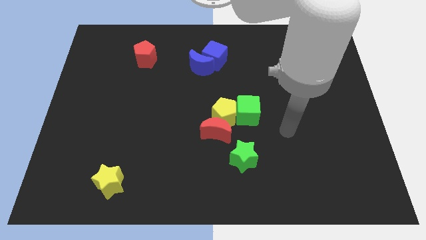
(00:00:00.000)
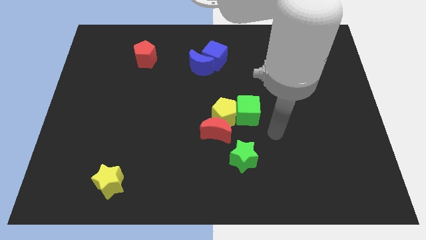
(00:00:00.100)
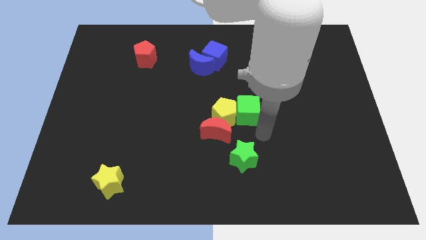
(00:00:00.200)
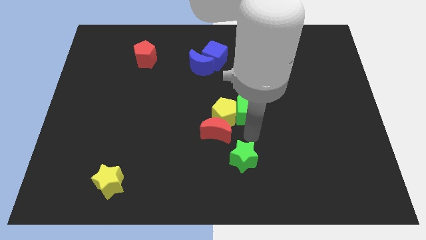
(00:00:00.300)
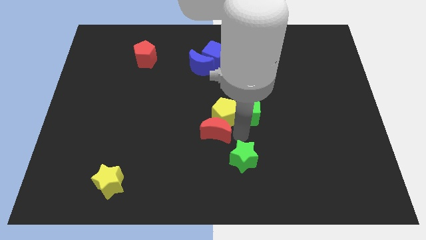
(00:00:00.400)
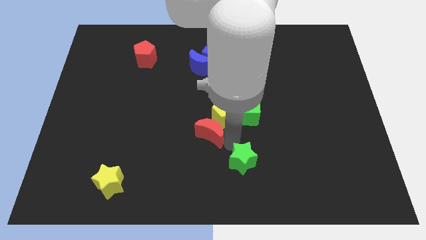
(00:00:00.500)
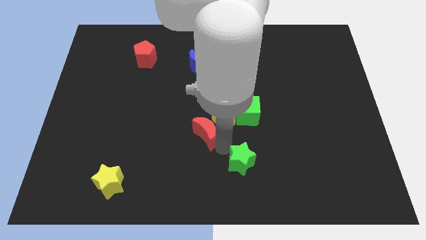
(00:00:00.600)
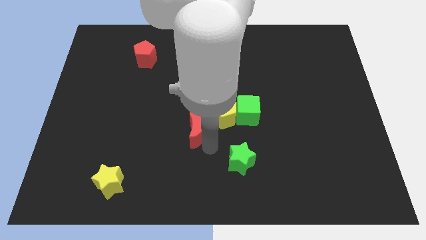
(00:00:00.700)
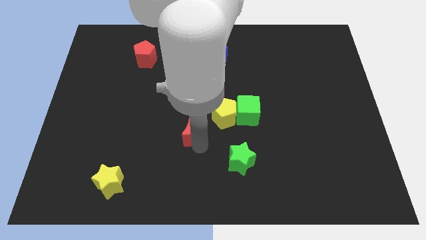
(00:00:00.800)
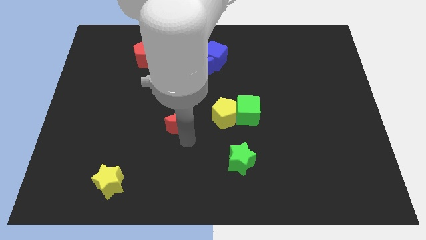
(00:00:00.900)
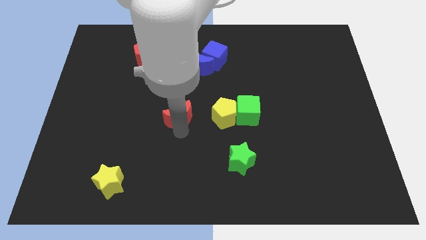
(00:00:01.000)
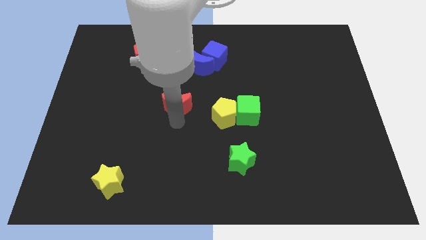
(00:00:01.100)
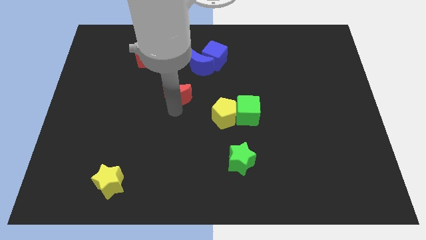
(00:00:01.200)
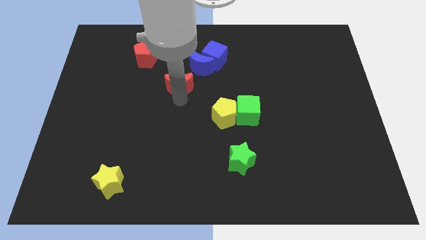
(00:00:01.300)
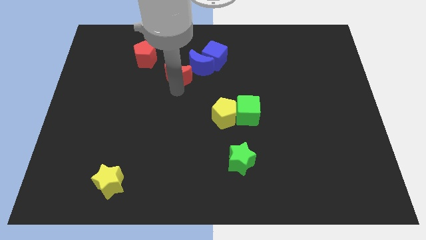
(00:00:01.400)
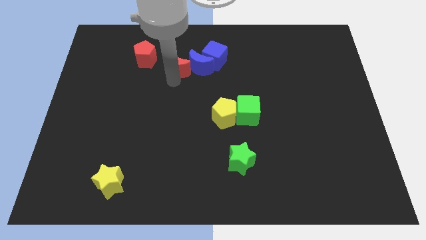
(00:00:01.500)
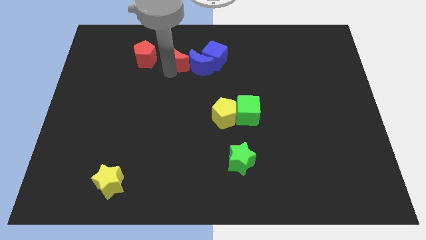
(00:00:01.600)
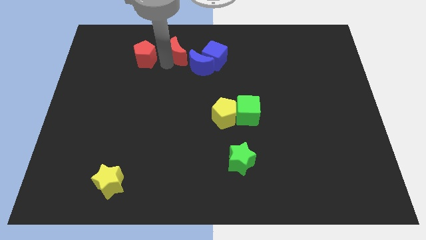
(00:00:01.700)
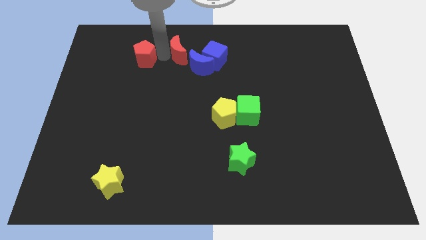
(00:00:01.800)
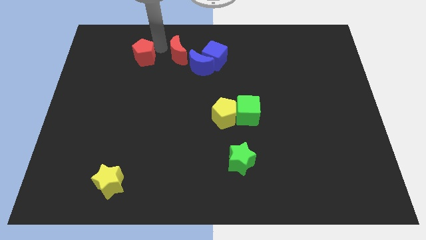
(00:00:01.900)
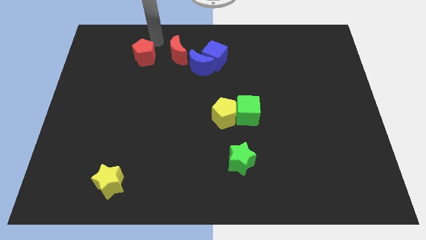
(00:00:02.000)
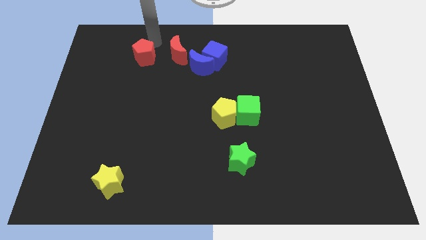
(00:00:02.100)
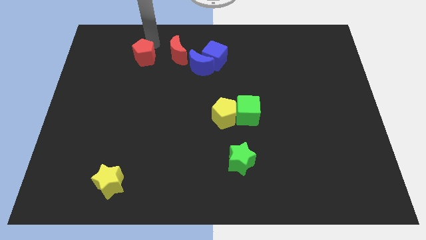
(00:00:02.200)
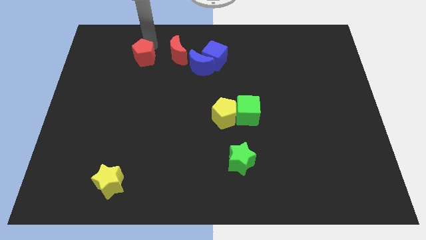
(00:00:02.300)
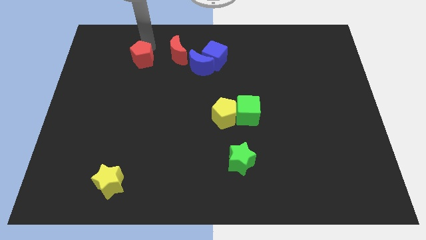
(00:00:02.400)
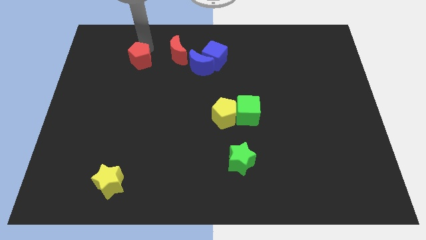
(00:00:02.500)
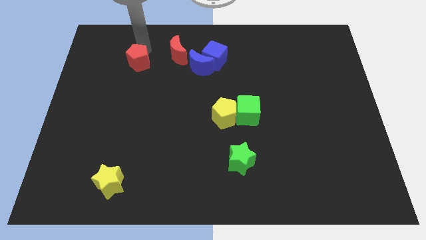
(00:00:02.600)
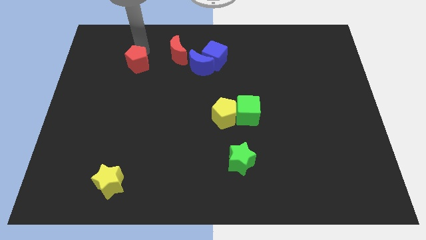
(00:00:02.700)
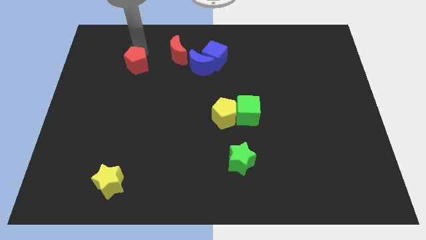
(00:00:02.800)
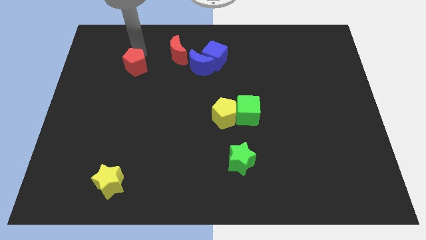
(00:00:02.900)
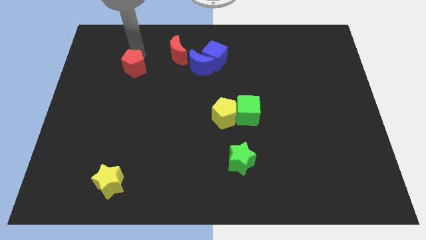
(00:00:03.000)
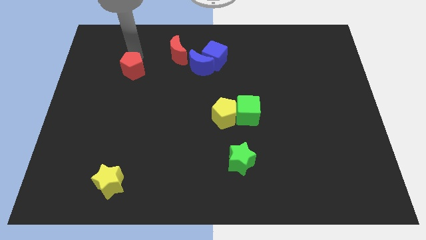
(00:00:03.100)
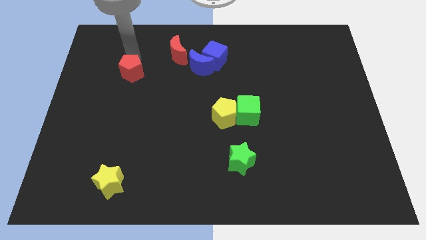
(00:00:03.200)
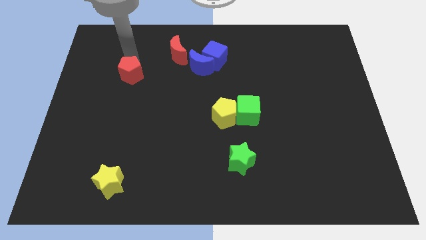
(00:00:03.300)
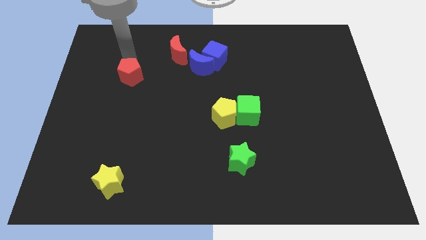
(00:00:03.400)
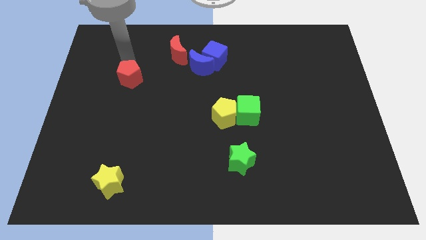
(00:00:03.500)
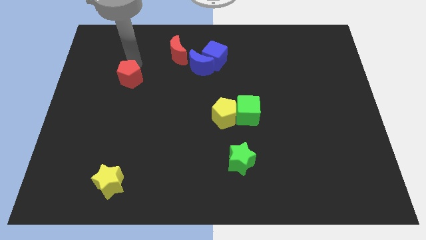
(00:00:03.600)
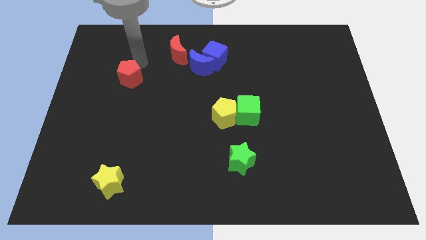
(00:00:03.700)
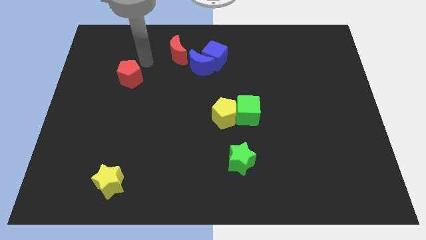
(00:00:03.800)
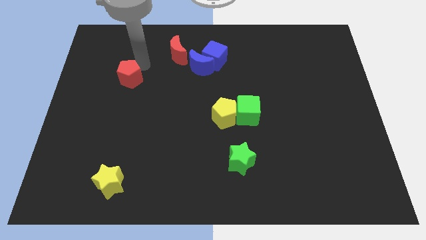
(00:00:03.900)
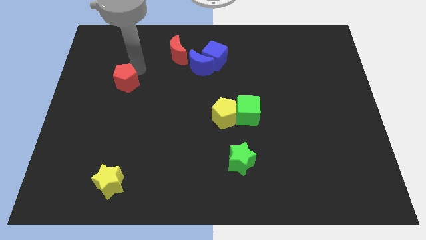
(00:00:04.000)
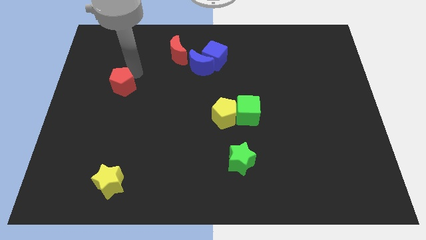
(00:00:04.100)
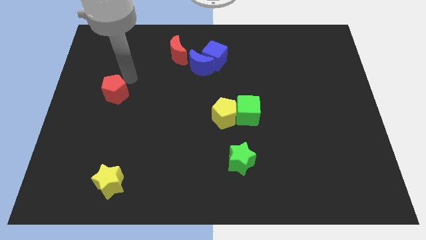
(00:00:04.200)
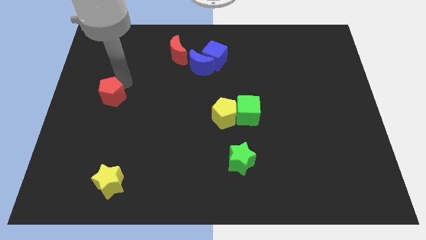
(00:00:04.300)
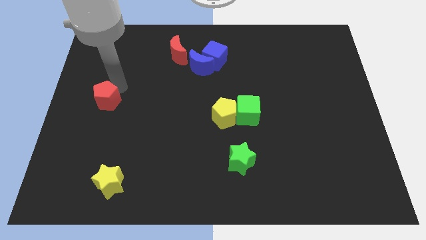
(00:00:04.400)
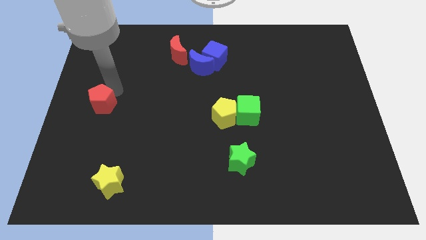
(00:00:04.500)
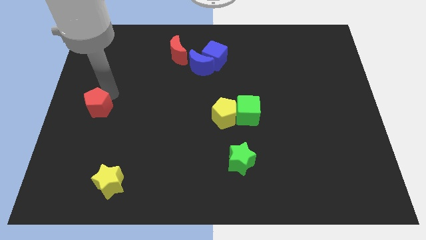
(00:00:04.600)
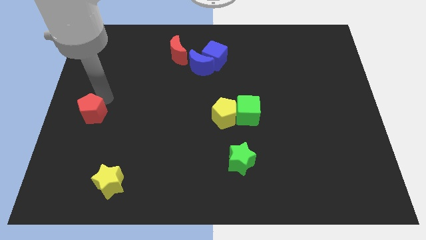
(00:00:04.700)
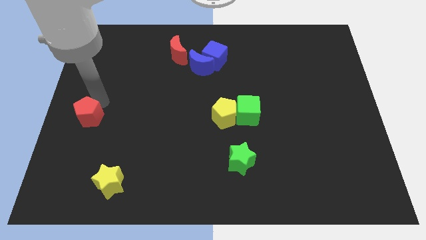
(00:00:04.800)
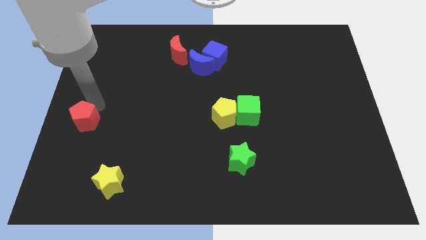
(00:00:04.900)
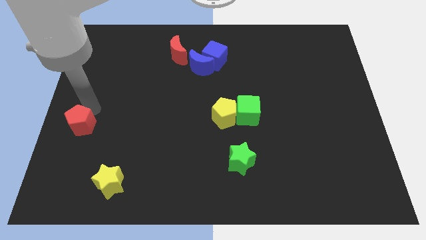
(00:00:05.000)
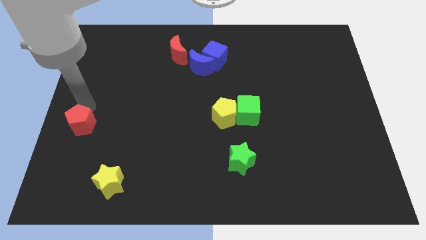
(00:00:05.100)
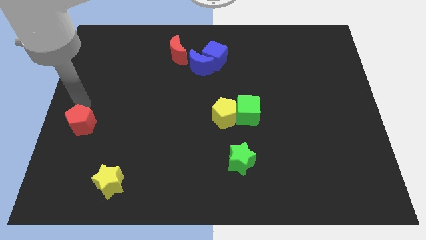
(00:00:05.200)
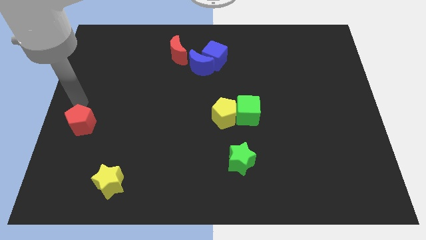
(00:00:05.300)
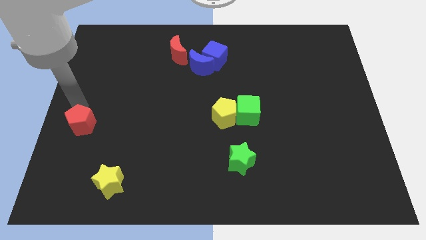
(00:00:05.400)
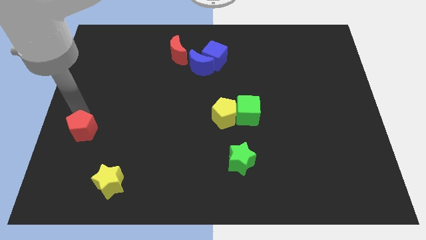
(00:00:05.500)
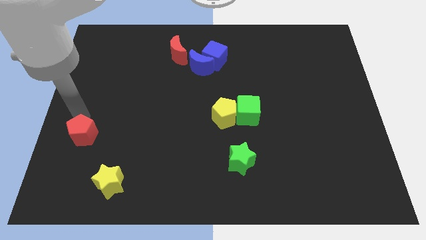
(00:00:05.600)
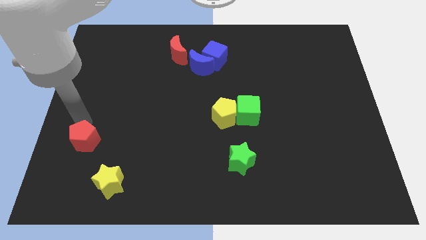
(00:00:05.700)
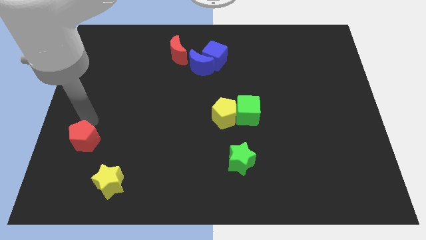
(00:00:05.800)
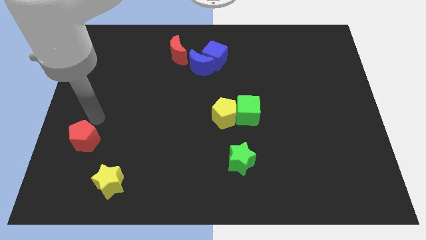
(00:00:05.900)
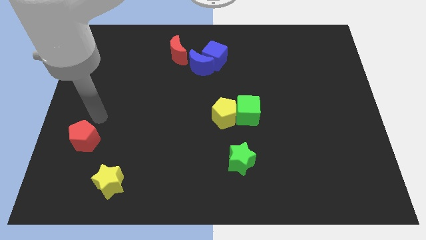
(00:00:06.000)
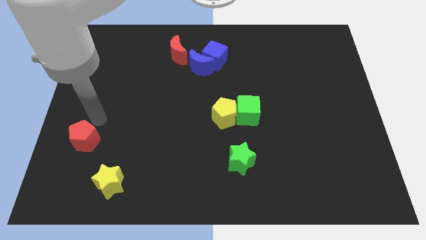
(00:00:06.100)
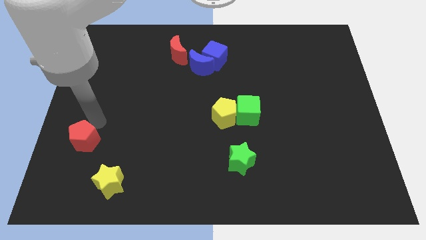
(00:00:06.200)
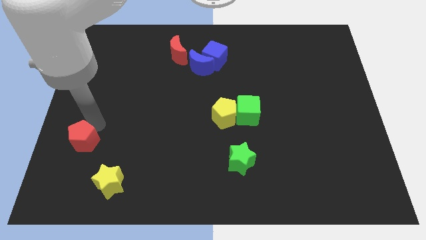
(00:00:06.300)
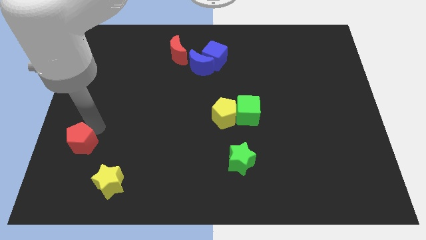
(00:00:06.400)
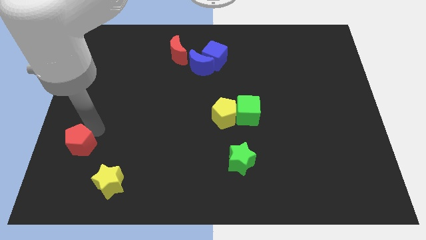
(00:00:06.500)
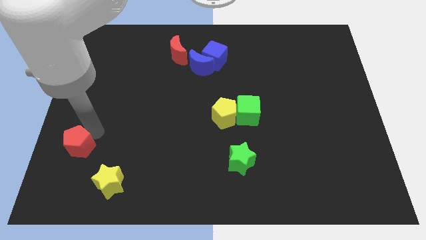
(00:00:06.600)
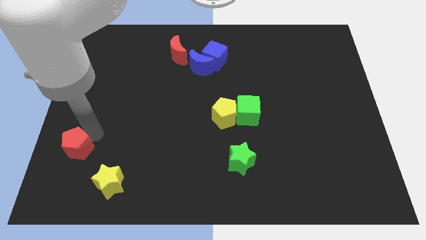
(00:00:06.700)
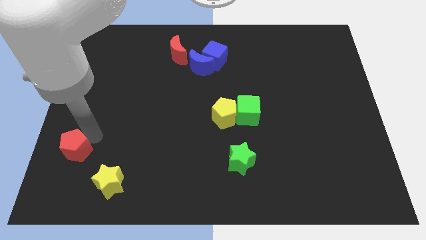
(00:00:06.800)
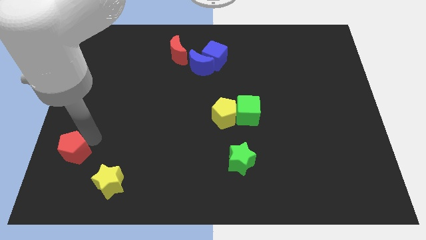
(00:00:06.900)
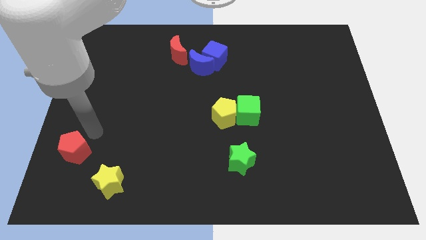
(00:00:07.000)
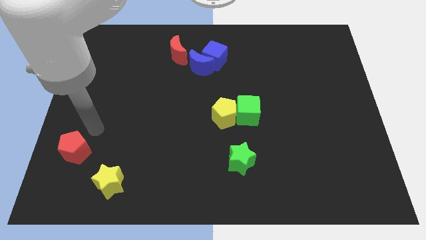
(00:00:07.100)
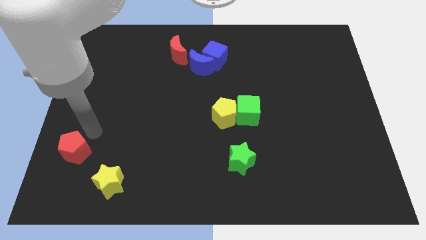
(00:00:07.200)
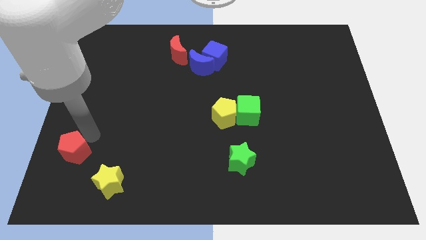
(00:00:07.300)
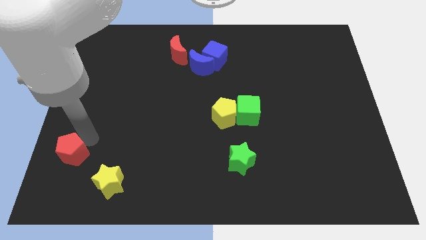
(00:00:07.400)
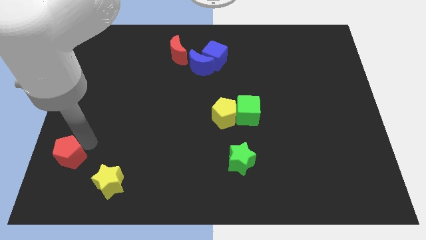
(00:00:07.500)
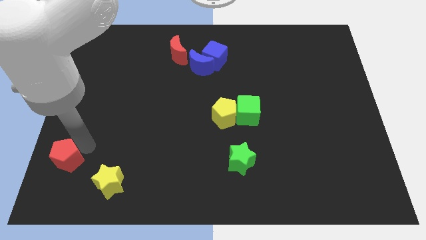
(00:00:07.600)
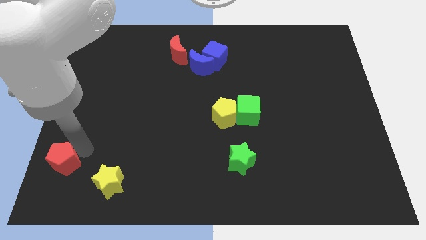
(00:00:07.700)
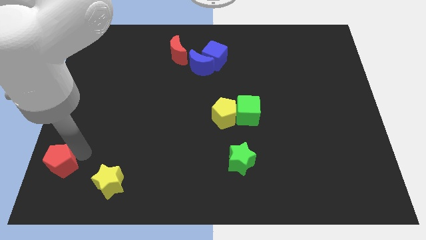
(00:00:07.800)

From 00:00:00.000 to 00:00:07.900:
slide the red pentagon to the bottom left corner
